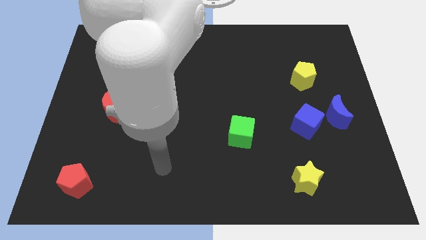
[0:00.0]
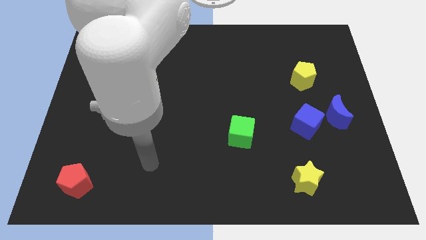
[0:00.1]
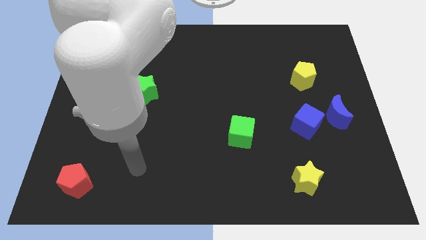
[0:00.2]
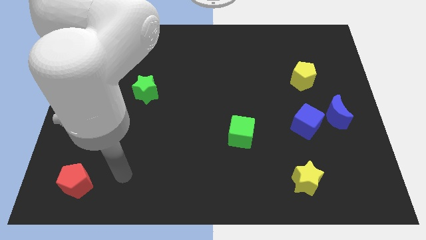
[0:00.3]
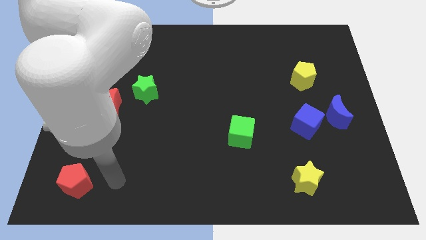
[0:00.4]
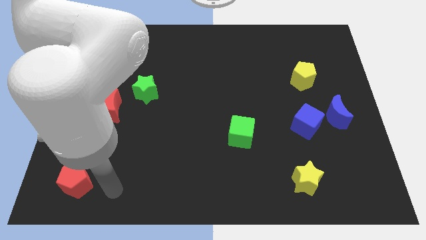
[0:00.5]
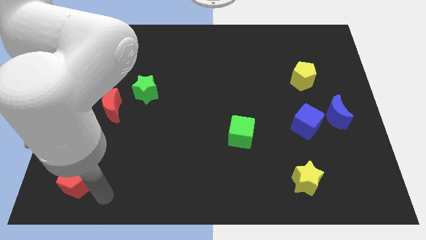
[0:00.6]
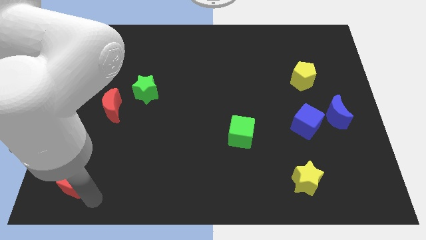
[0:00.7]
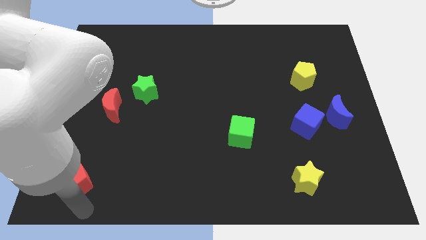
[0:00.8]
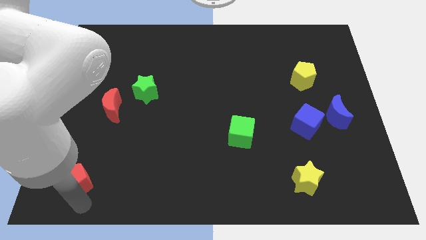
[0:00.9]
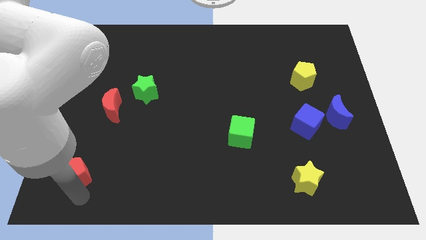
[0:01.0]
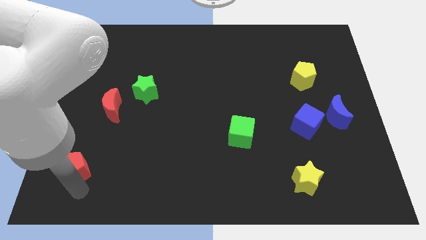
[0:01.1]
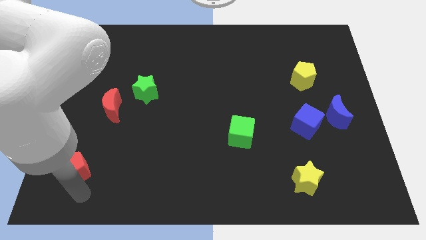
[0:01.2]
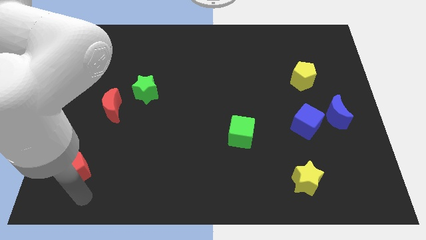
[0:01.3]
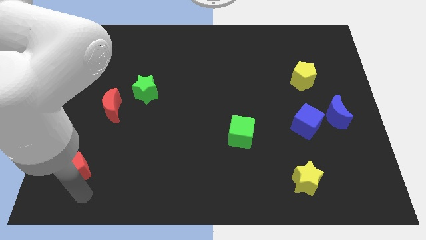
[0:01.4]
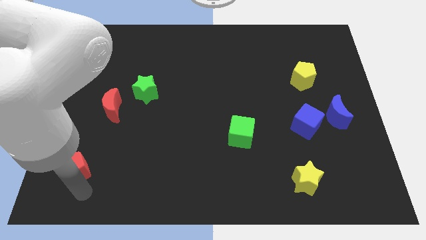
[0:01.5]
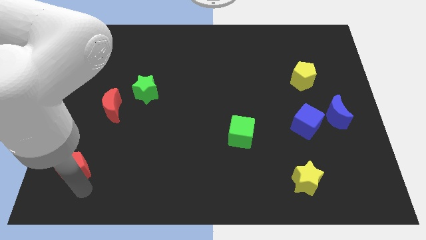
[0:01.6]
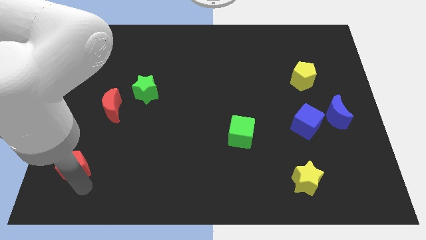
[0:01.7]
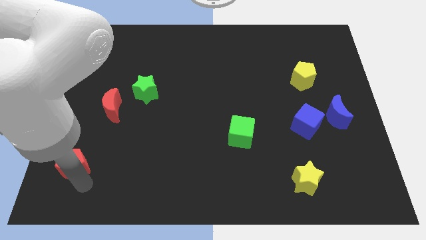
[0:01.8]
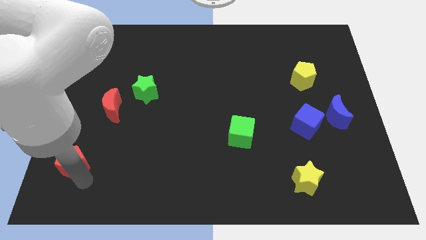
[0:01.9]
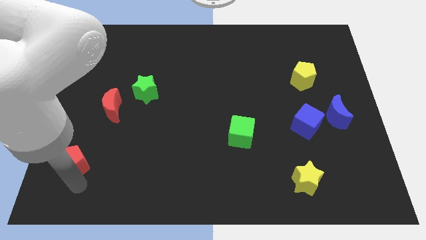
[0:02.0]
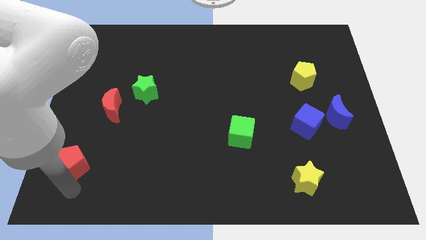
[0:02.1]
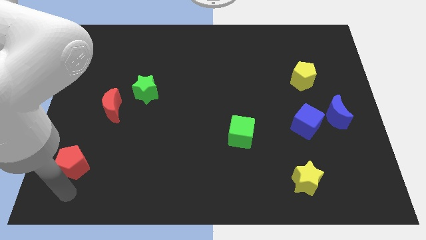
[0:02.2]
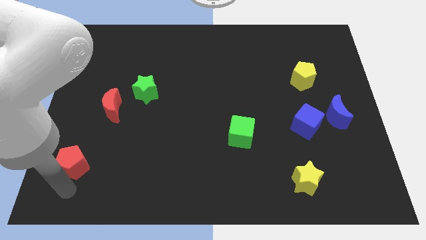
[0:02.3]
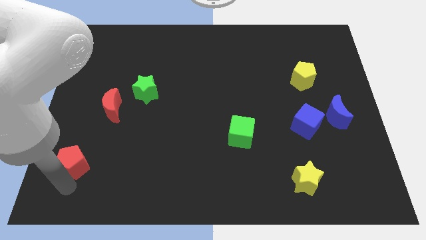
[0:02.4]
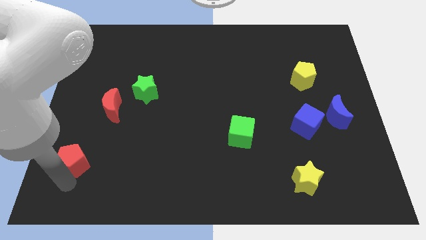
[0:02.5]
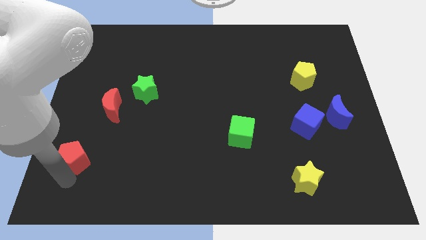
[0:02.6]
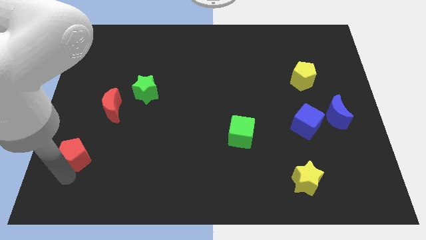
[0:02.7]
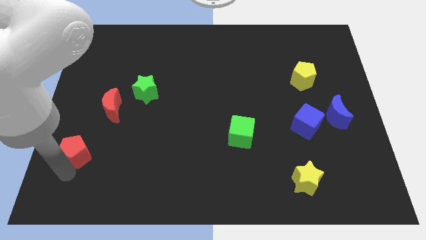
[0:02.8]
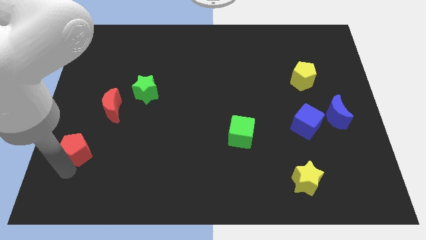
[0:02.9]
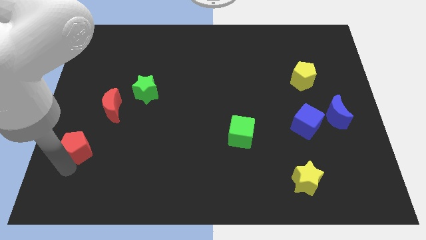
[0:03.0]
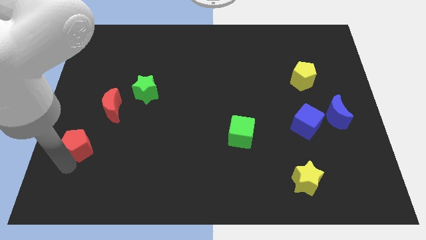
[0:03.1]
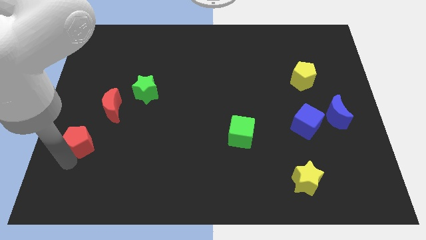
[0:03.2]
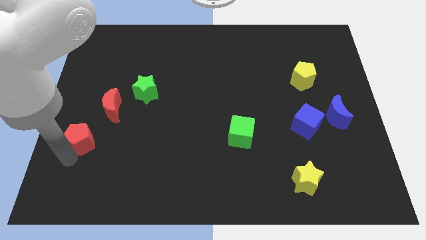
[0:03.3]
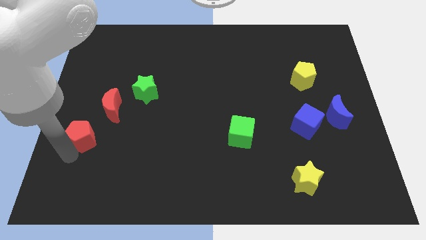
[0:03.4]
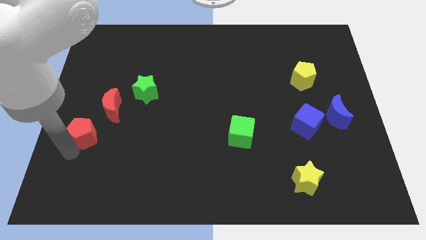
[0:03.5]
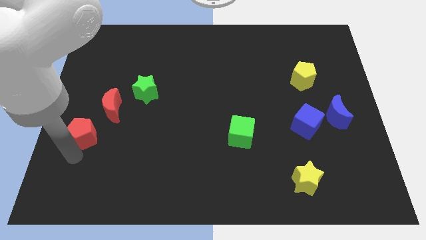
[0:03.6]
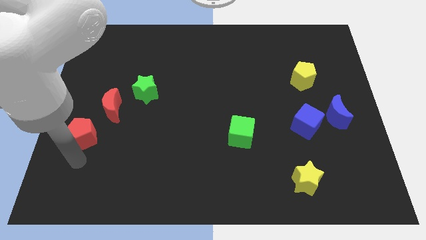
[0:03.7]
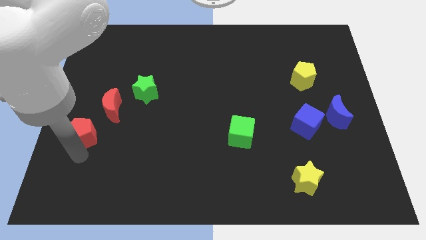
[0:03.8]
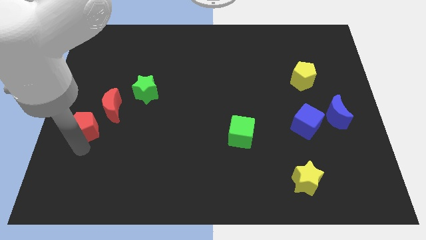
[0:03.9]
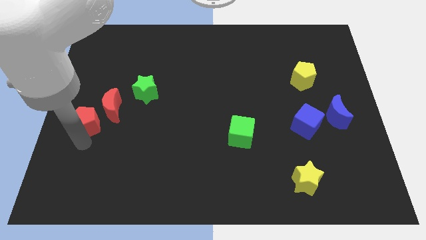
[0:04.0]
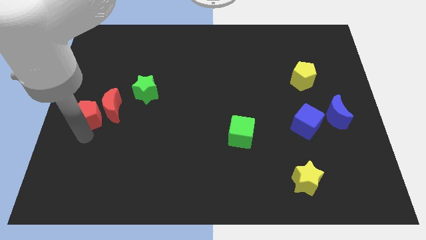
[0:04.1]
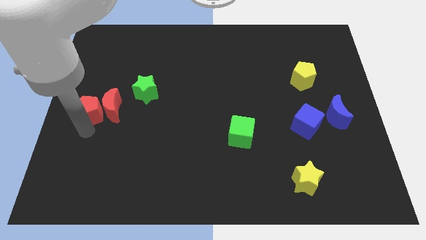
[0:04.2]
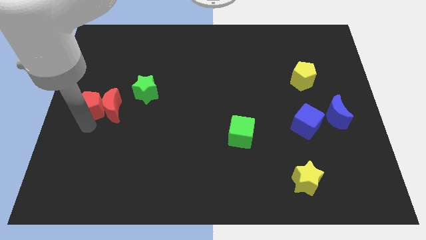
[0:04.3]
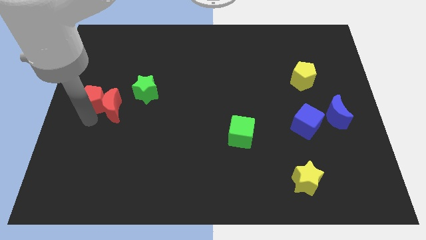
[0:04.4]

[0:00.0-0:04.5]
push the red pentagon up

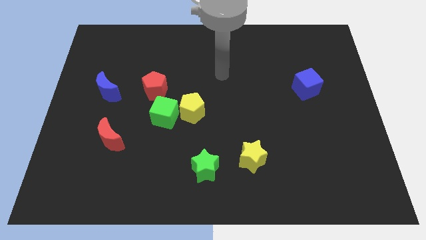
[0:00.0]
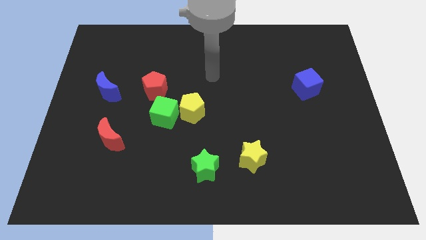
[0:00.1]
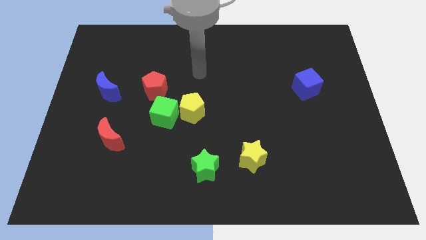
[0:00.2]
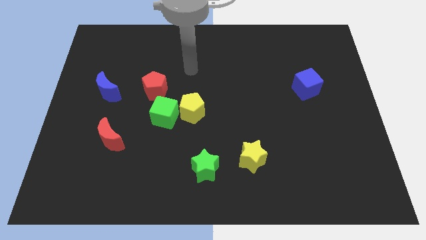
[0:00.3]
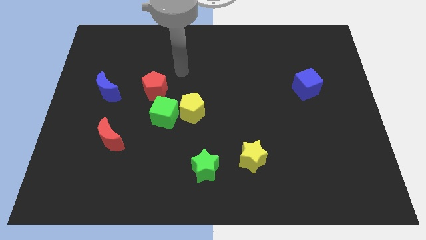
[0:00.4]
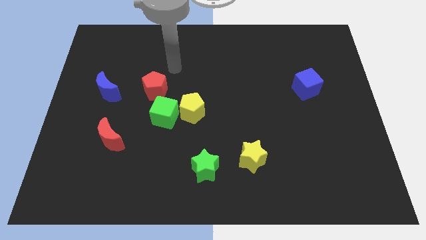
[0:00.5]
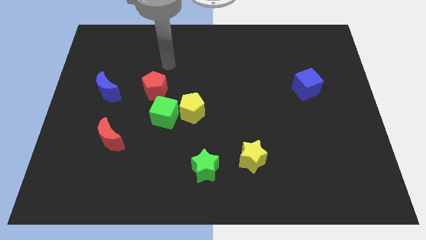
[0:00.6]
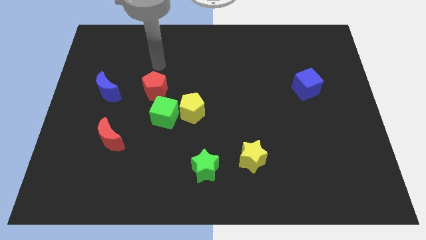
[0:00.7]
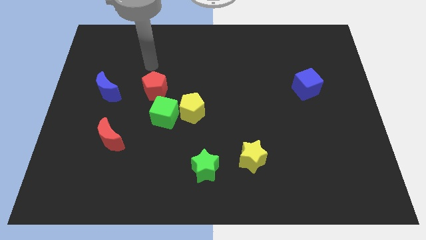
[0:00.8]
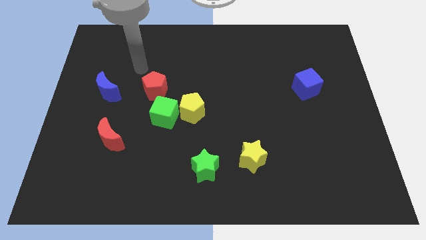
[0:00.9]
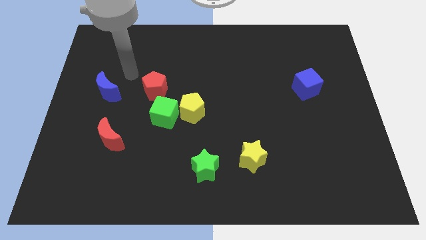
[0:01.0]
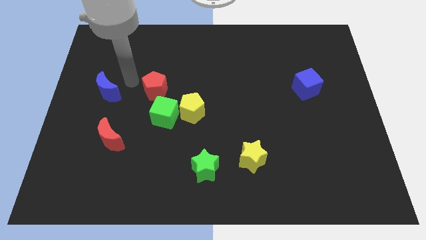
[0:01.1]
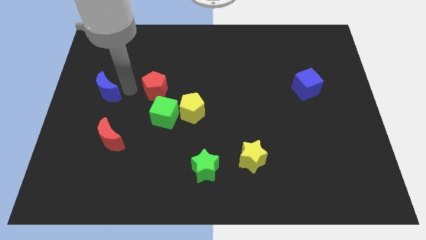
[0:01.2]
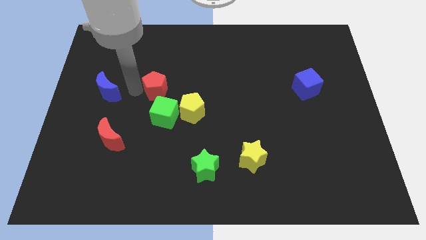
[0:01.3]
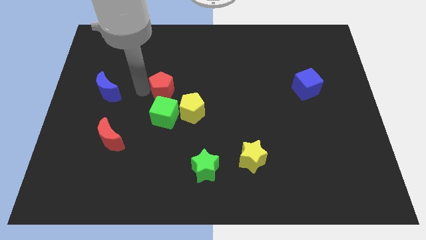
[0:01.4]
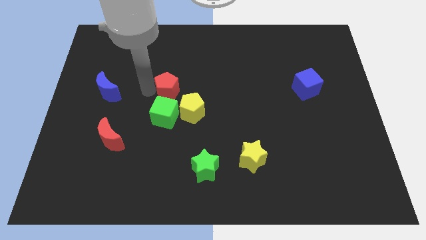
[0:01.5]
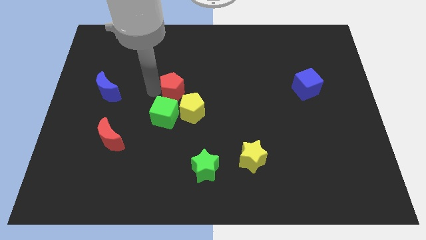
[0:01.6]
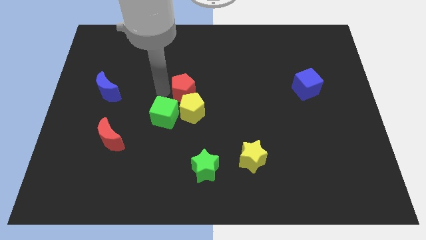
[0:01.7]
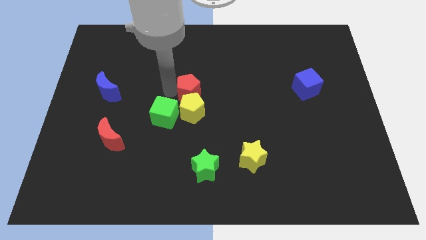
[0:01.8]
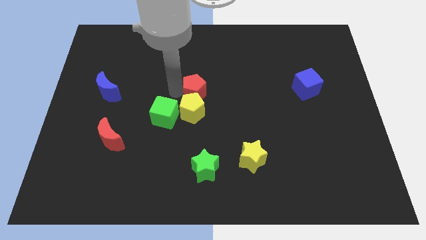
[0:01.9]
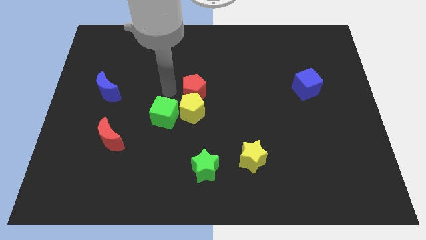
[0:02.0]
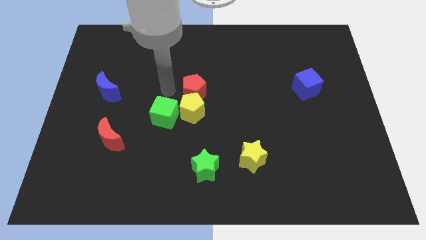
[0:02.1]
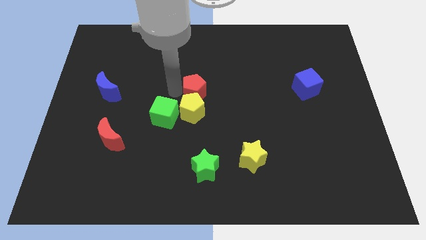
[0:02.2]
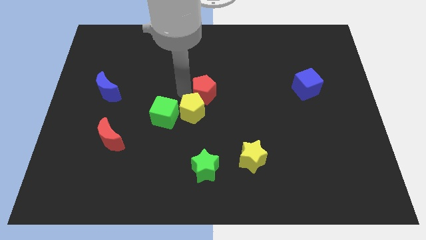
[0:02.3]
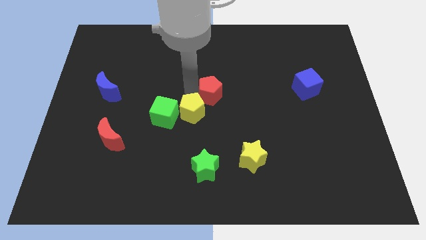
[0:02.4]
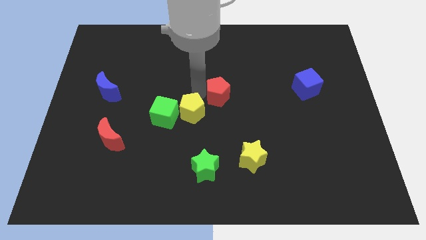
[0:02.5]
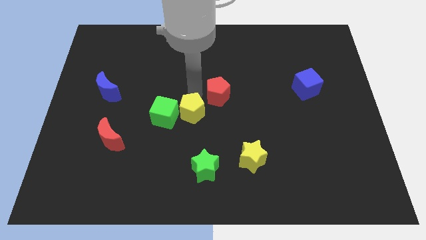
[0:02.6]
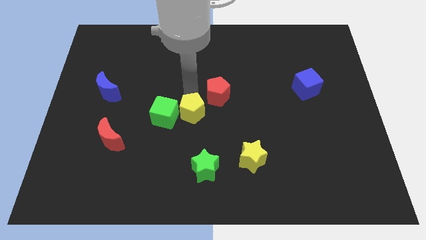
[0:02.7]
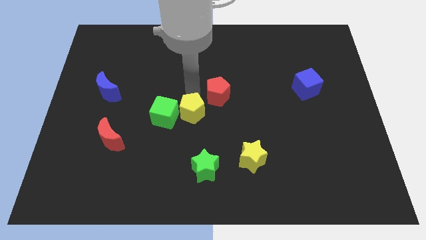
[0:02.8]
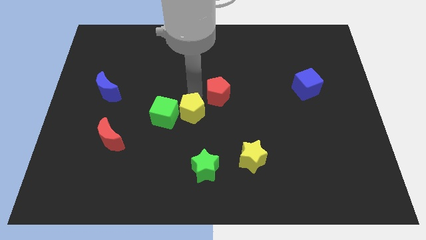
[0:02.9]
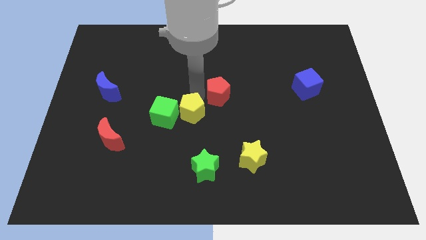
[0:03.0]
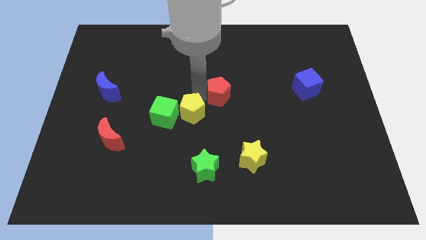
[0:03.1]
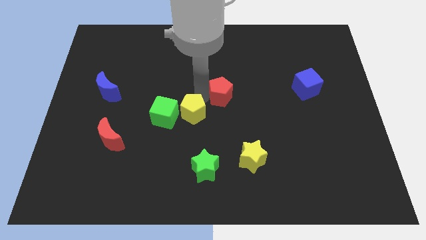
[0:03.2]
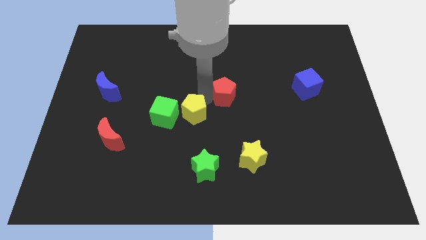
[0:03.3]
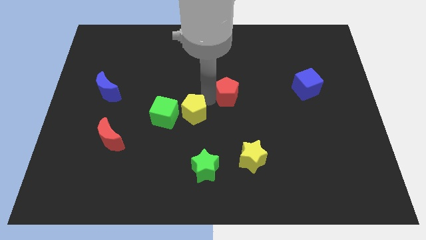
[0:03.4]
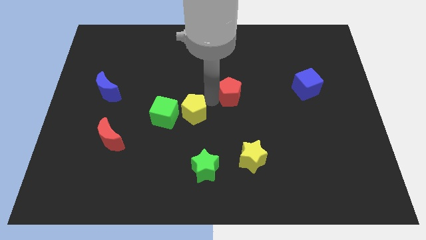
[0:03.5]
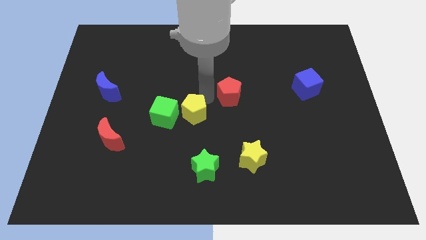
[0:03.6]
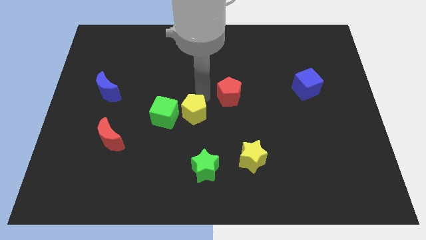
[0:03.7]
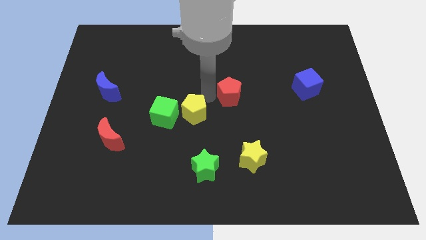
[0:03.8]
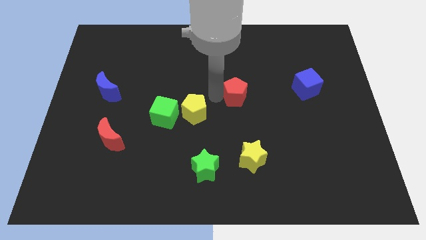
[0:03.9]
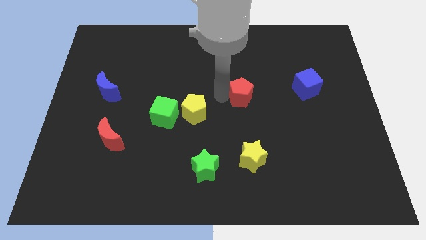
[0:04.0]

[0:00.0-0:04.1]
push the red pentagon right
